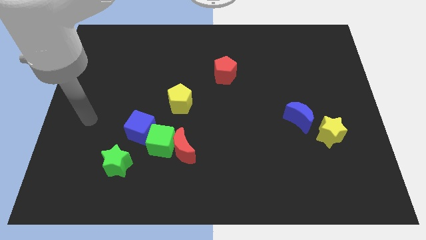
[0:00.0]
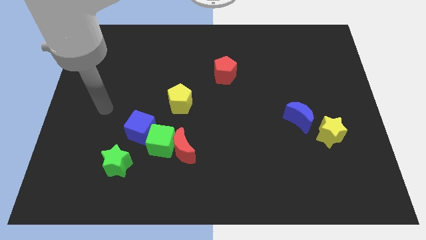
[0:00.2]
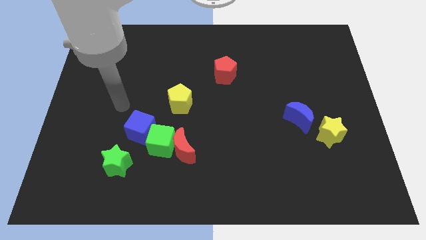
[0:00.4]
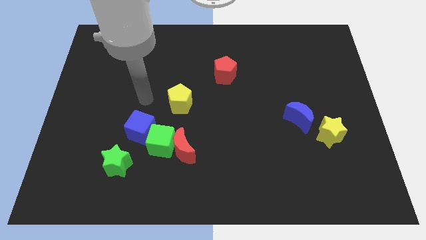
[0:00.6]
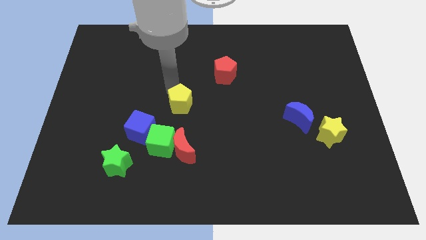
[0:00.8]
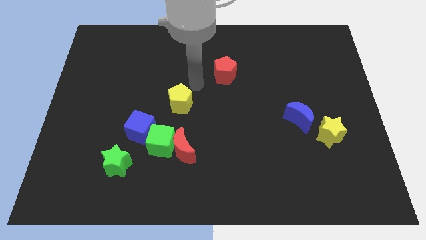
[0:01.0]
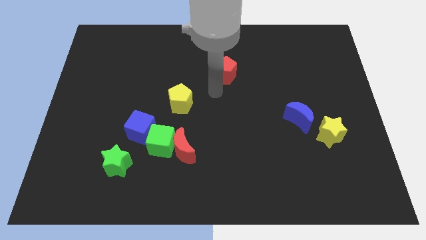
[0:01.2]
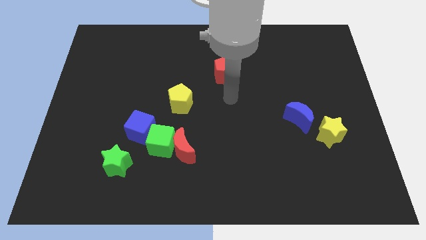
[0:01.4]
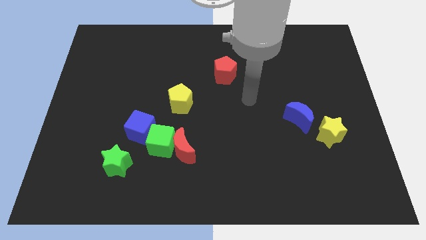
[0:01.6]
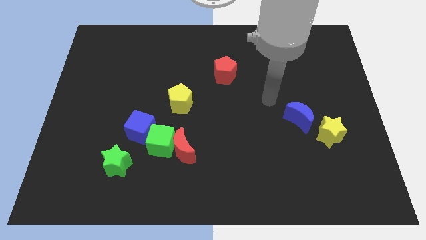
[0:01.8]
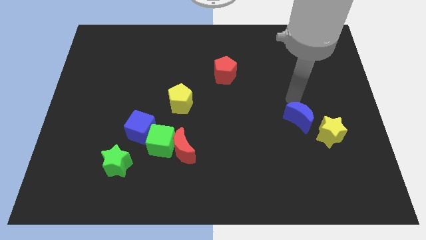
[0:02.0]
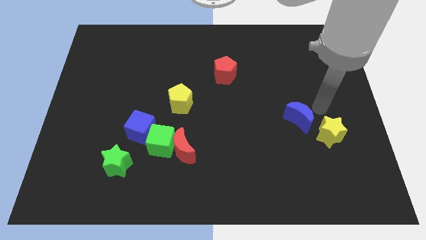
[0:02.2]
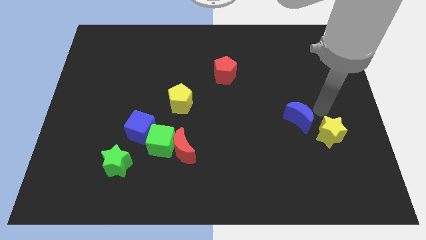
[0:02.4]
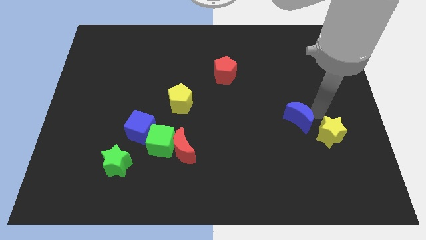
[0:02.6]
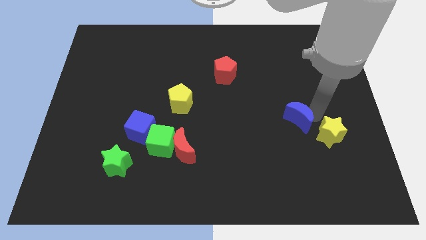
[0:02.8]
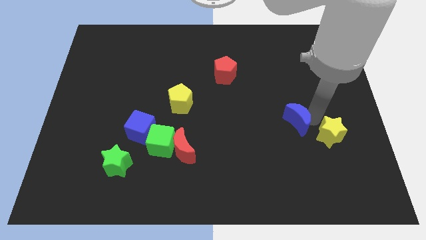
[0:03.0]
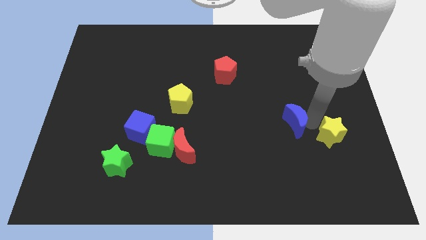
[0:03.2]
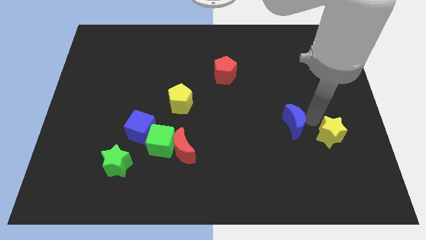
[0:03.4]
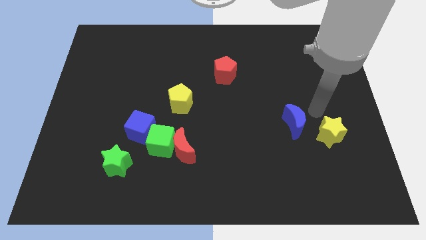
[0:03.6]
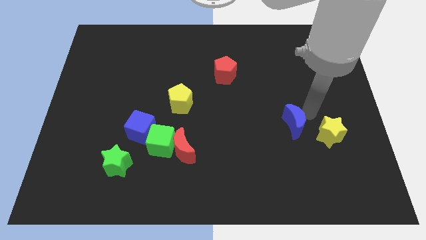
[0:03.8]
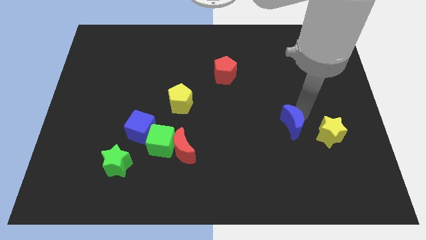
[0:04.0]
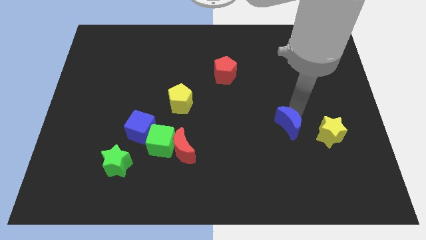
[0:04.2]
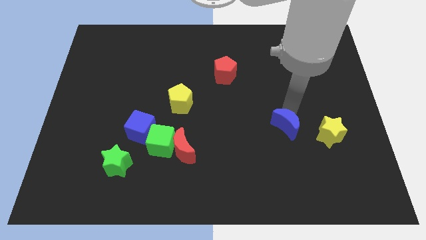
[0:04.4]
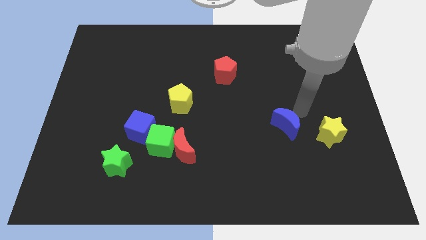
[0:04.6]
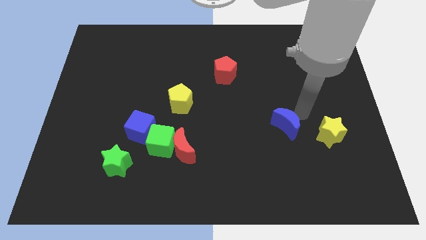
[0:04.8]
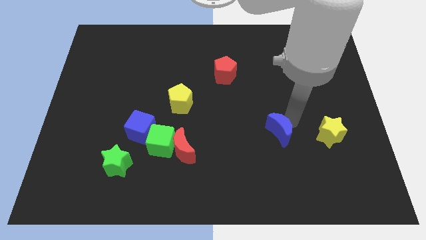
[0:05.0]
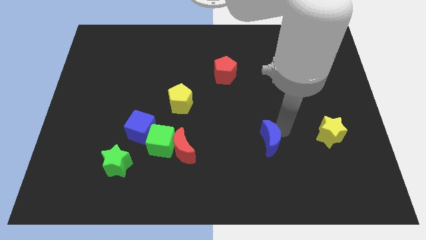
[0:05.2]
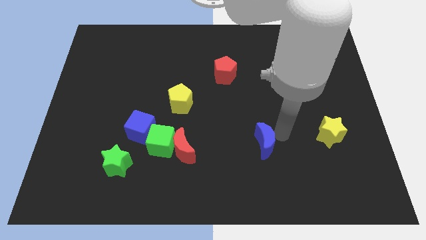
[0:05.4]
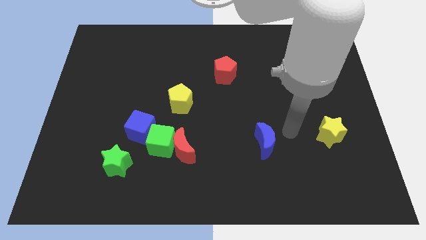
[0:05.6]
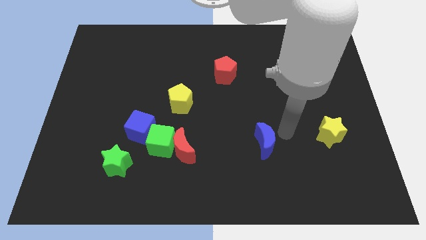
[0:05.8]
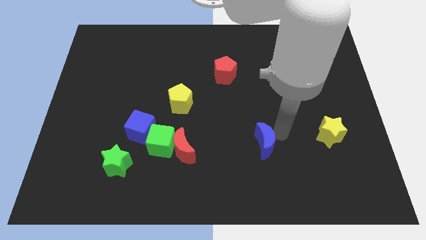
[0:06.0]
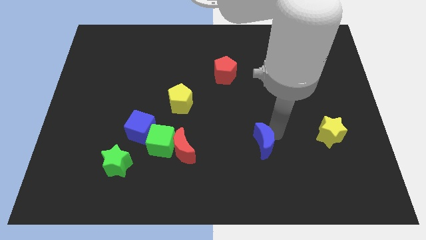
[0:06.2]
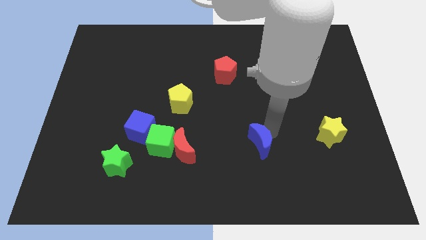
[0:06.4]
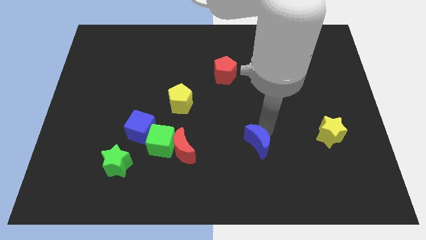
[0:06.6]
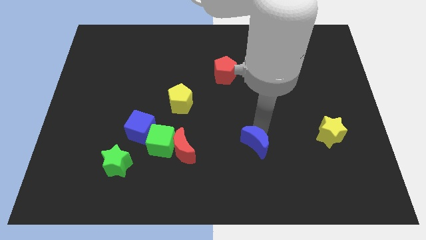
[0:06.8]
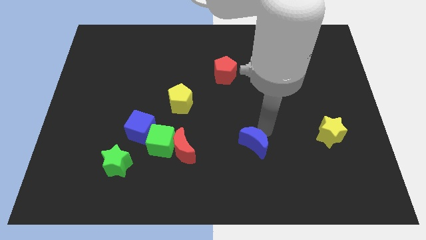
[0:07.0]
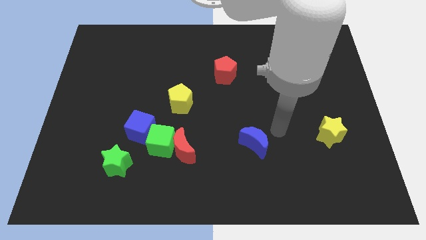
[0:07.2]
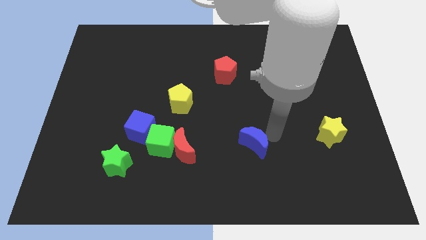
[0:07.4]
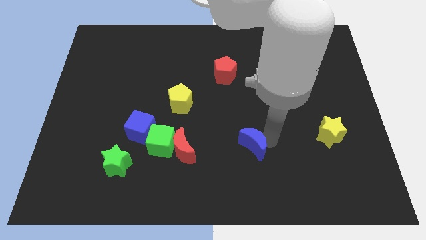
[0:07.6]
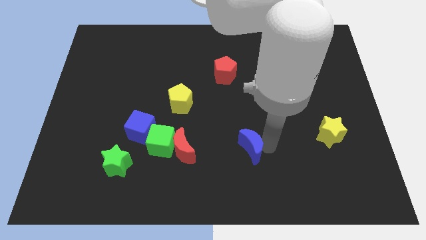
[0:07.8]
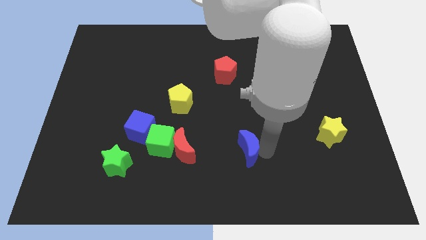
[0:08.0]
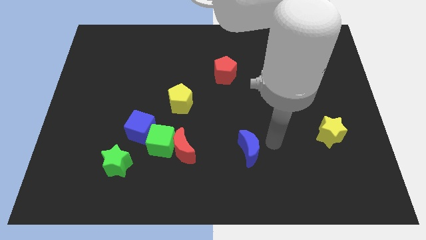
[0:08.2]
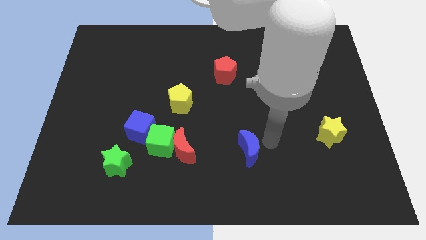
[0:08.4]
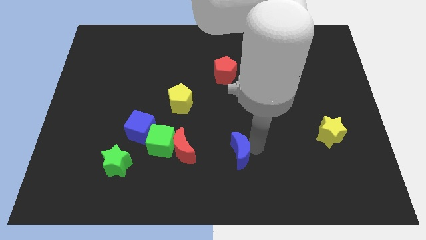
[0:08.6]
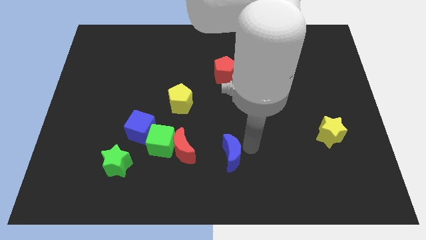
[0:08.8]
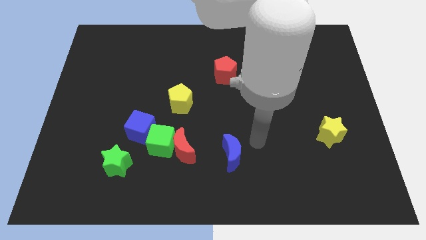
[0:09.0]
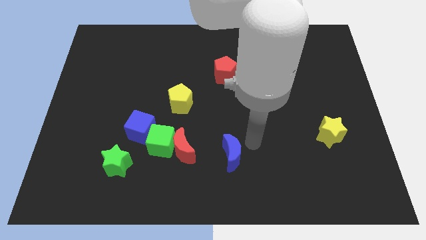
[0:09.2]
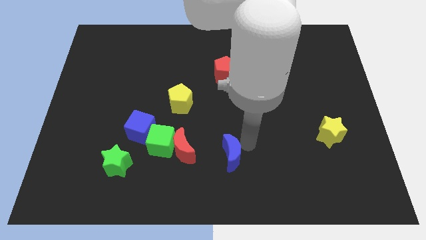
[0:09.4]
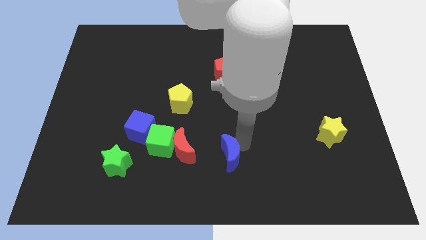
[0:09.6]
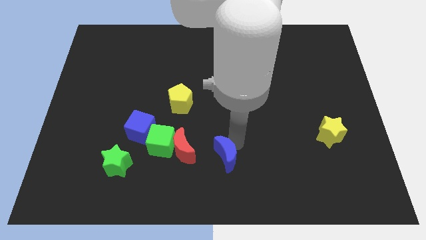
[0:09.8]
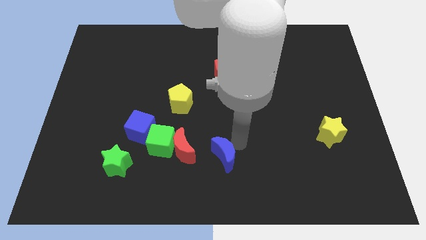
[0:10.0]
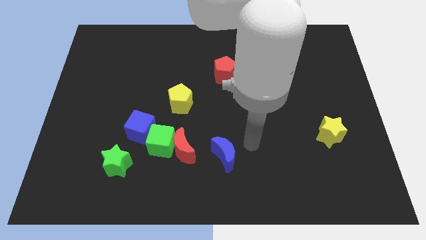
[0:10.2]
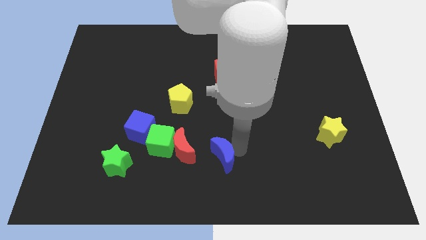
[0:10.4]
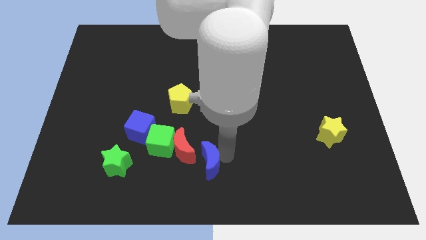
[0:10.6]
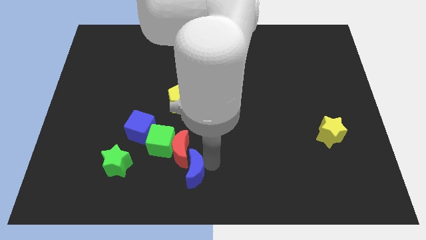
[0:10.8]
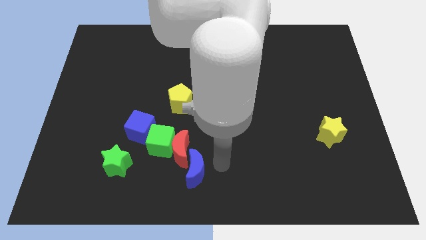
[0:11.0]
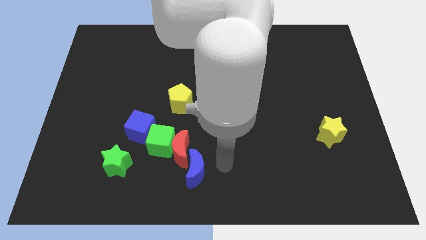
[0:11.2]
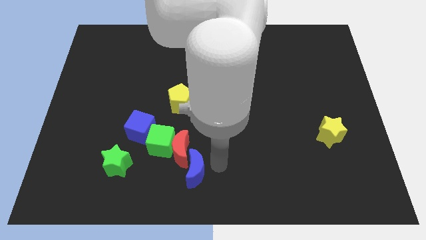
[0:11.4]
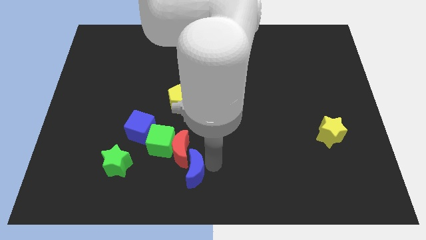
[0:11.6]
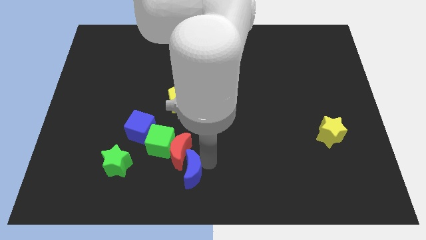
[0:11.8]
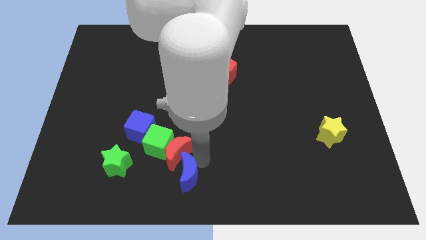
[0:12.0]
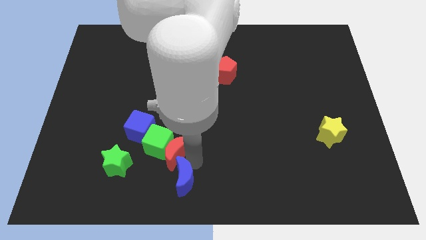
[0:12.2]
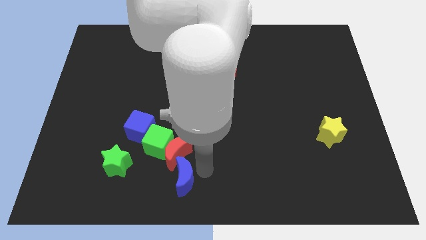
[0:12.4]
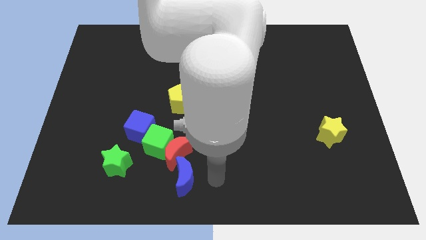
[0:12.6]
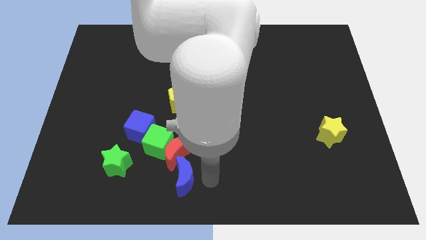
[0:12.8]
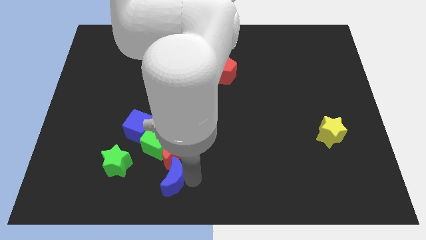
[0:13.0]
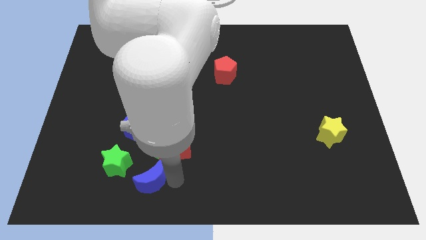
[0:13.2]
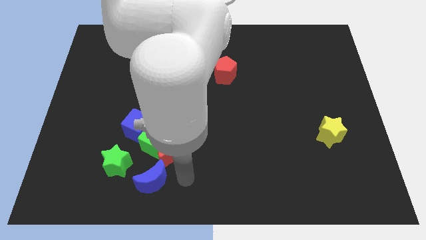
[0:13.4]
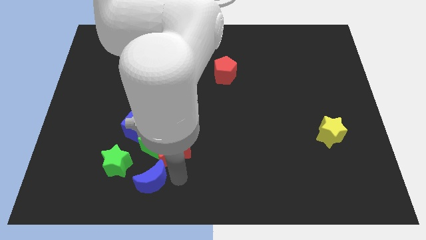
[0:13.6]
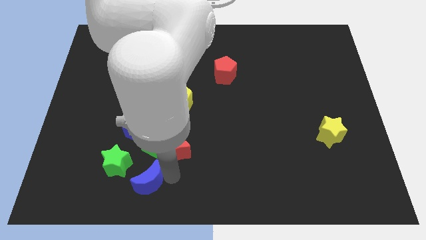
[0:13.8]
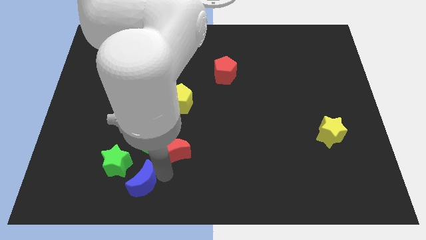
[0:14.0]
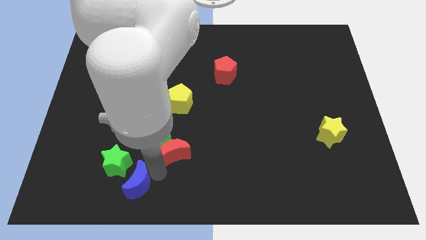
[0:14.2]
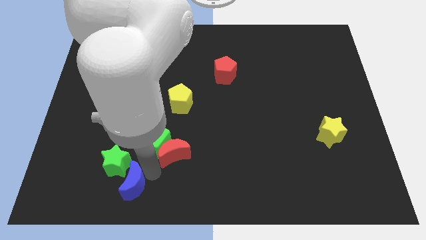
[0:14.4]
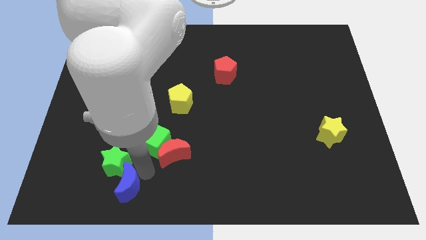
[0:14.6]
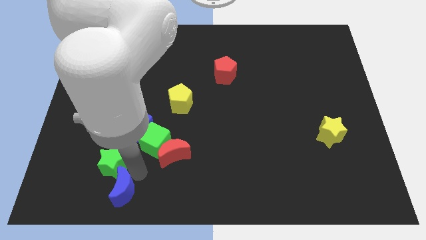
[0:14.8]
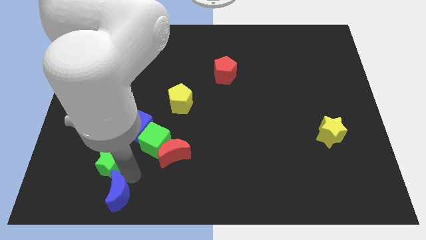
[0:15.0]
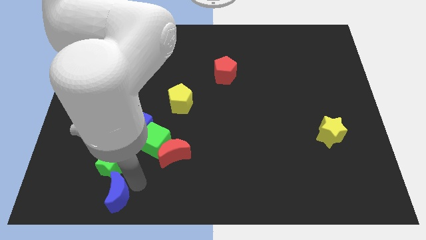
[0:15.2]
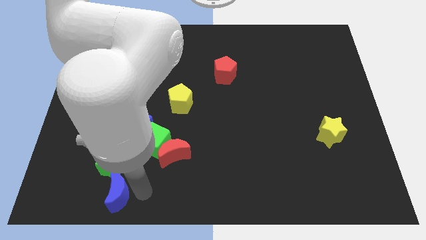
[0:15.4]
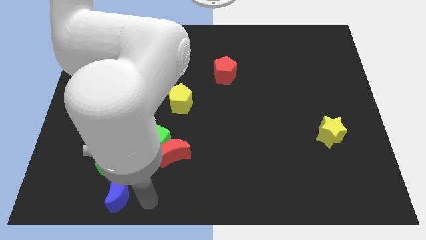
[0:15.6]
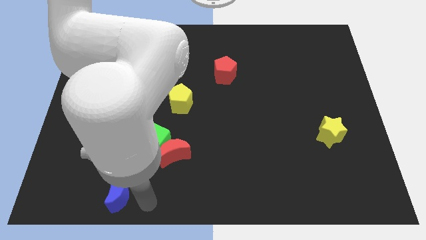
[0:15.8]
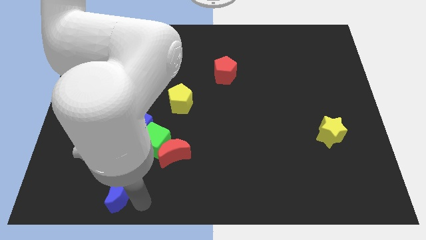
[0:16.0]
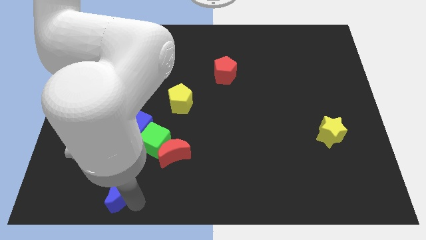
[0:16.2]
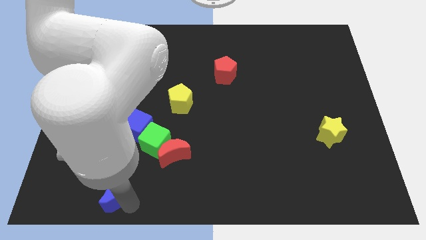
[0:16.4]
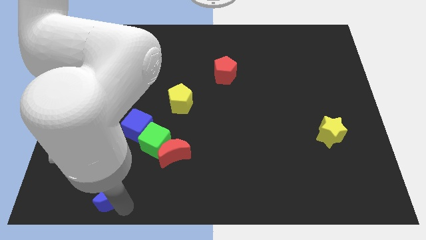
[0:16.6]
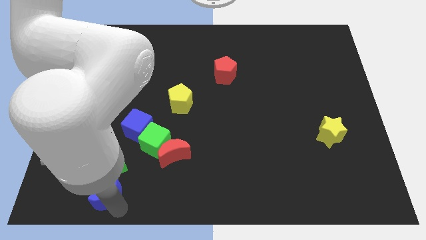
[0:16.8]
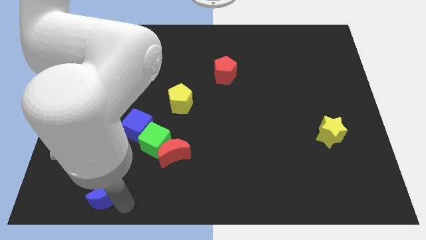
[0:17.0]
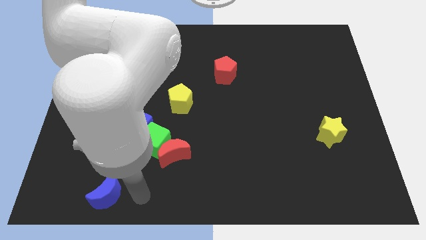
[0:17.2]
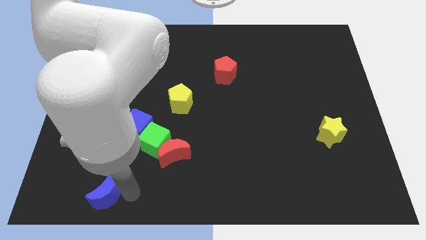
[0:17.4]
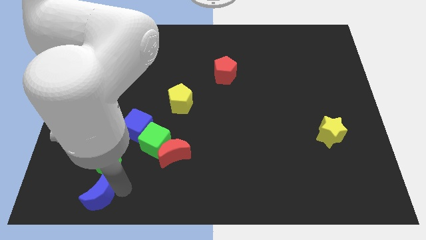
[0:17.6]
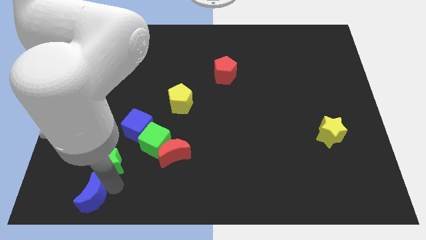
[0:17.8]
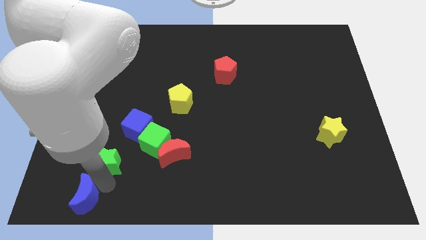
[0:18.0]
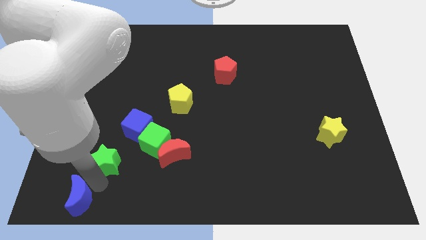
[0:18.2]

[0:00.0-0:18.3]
move the blue moon to the bottom left corner
